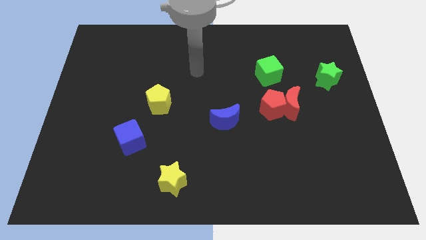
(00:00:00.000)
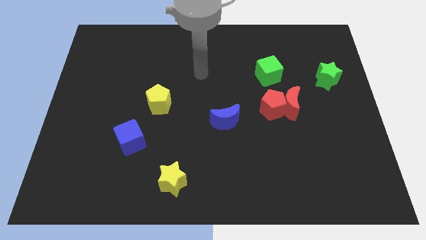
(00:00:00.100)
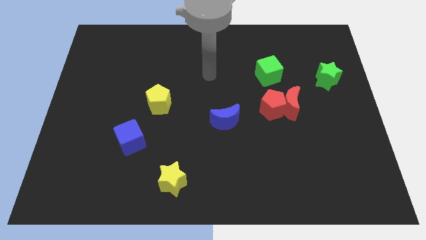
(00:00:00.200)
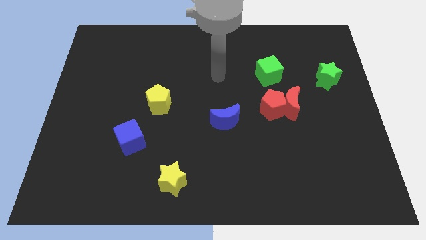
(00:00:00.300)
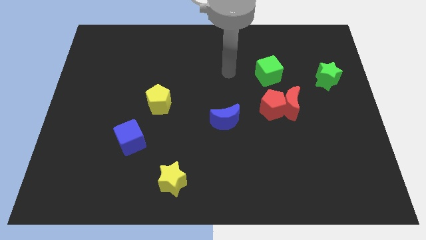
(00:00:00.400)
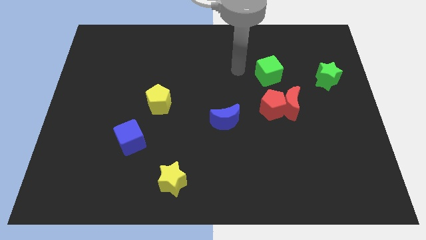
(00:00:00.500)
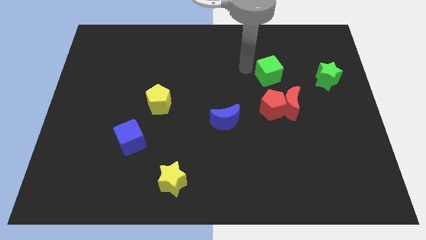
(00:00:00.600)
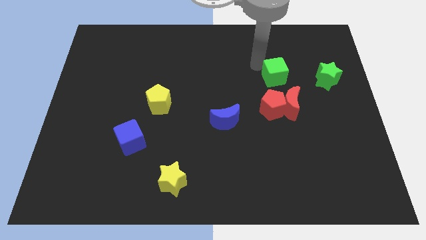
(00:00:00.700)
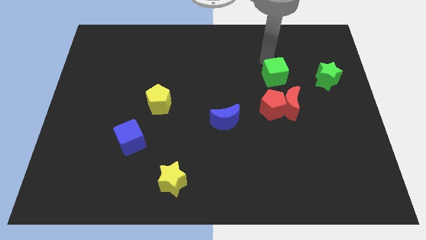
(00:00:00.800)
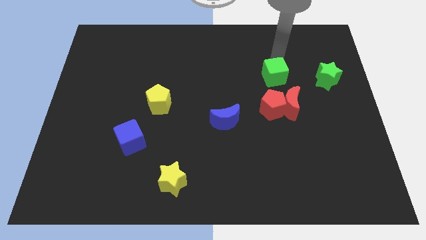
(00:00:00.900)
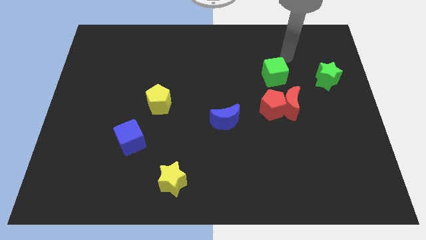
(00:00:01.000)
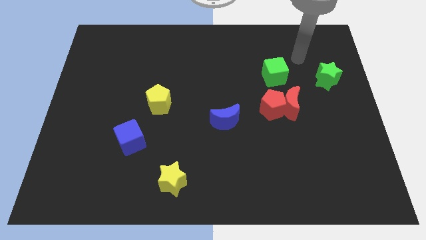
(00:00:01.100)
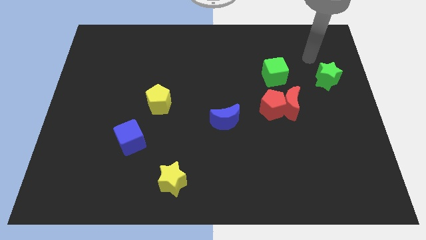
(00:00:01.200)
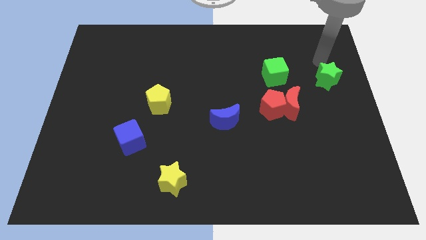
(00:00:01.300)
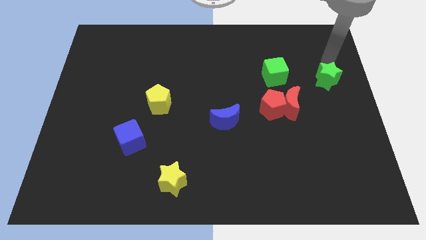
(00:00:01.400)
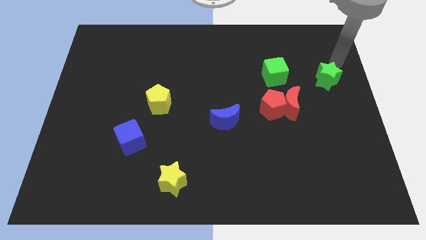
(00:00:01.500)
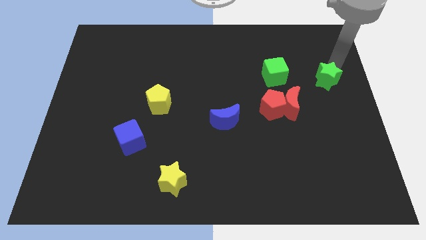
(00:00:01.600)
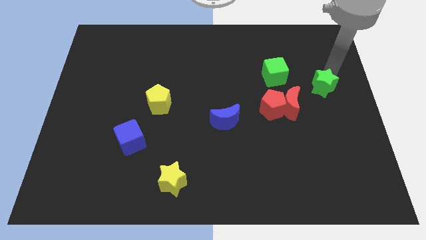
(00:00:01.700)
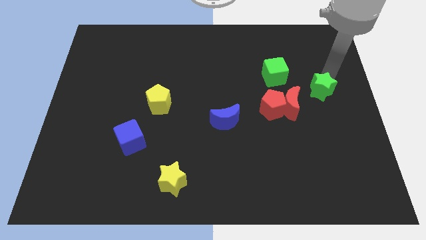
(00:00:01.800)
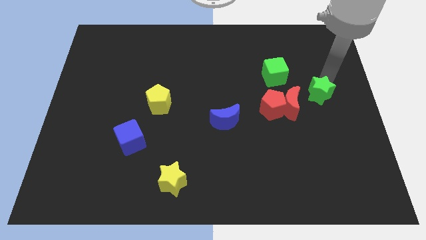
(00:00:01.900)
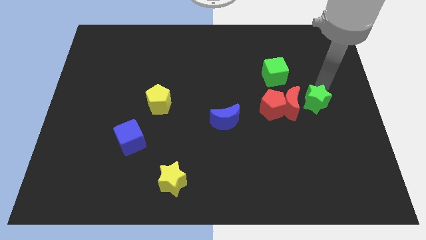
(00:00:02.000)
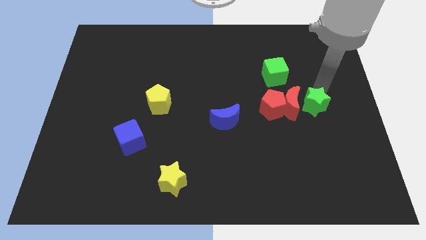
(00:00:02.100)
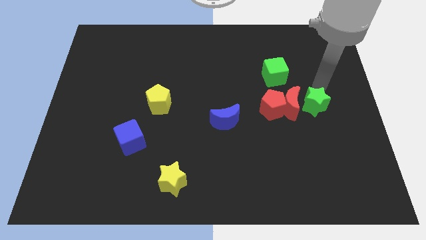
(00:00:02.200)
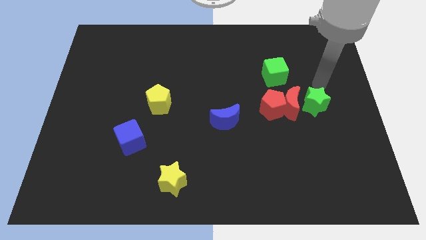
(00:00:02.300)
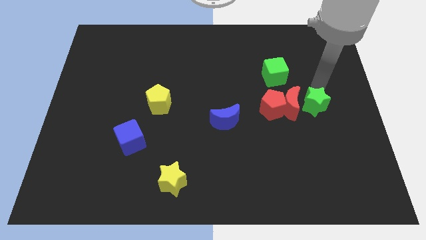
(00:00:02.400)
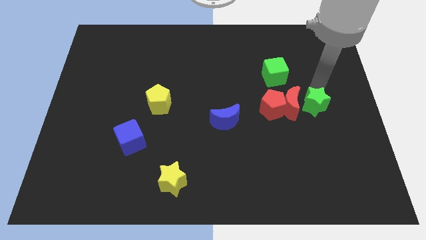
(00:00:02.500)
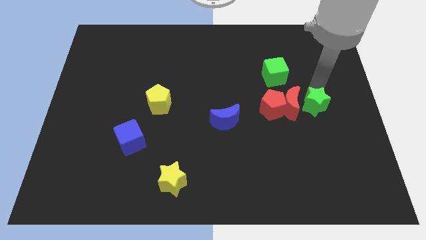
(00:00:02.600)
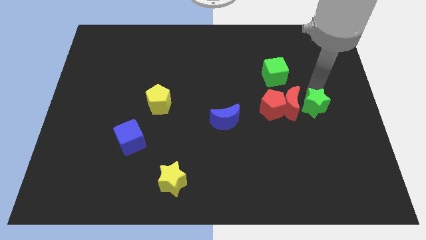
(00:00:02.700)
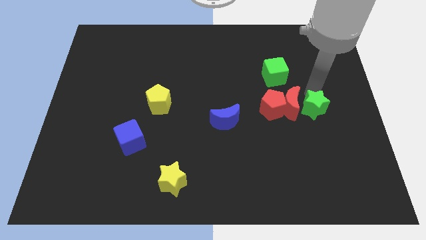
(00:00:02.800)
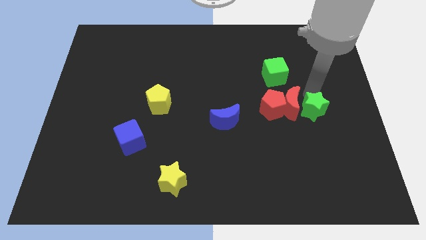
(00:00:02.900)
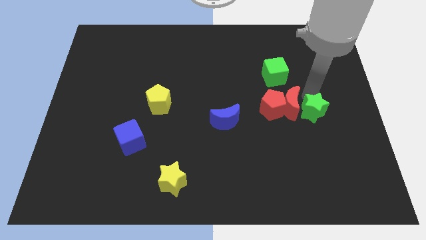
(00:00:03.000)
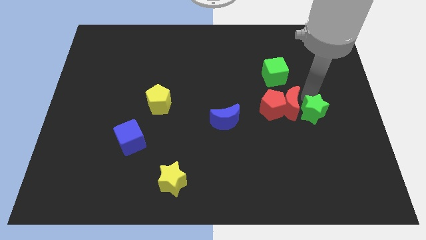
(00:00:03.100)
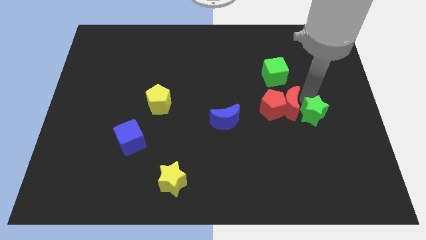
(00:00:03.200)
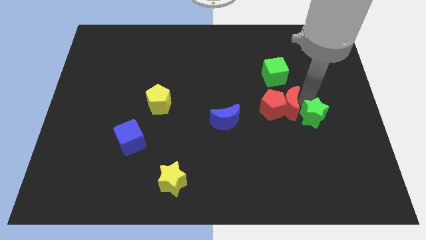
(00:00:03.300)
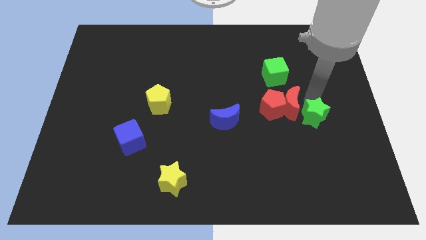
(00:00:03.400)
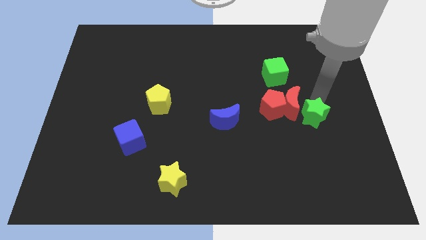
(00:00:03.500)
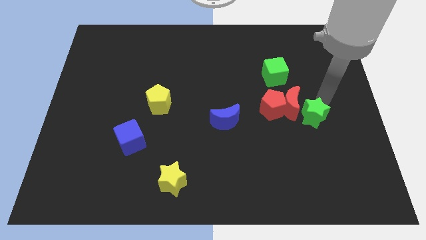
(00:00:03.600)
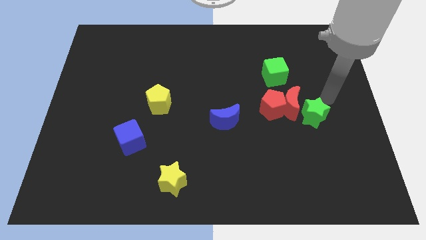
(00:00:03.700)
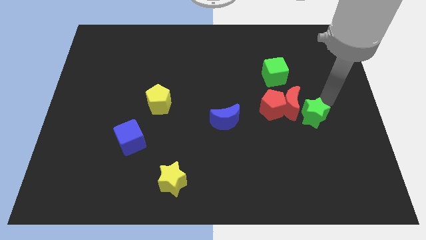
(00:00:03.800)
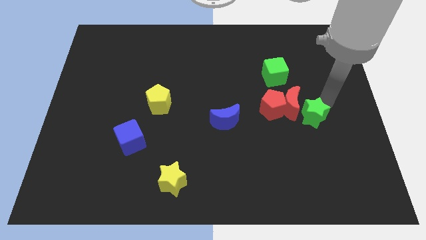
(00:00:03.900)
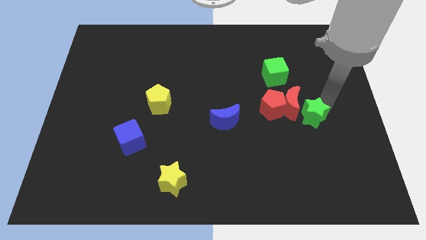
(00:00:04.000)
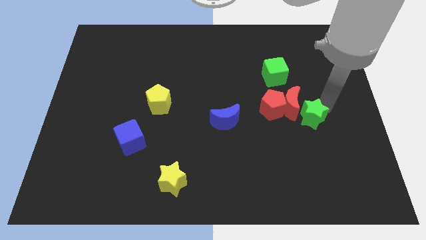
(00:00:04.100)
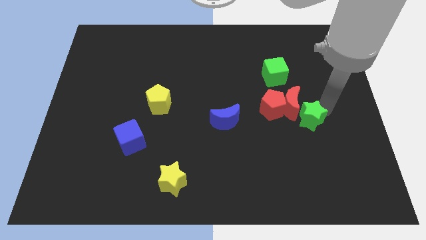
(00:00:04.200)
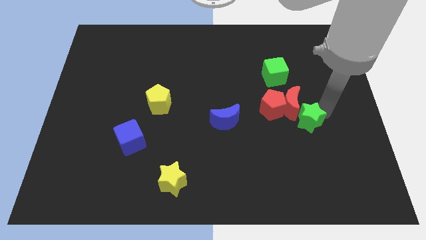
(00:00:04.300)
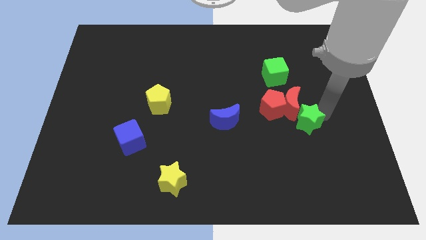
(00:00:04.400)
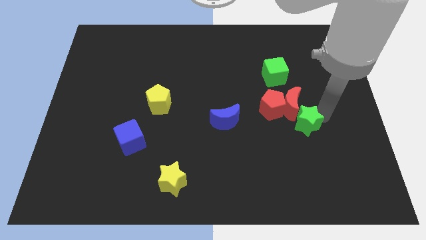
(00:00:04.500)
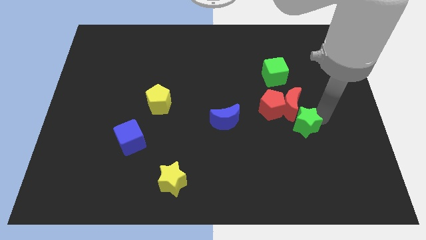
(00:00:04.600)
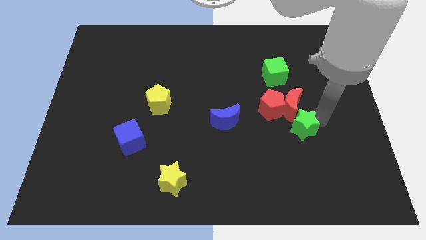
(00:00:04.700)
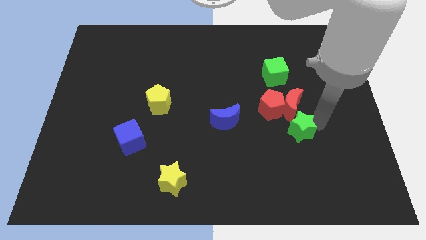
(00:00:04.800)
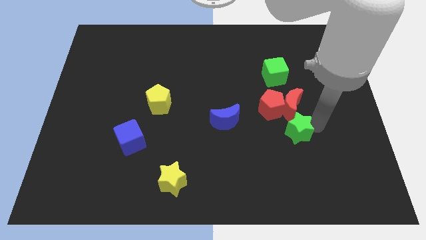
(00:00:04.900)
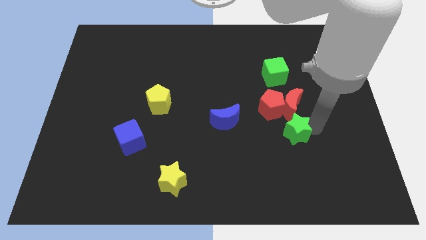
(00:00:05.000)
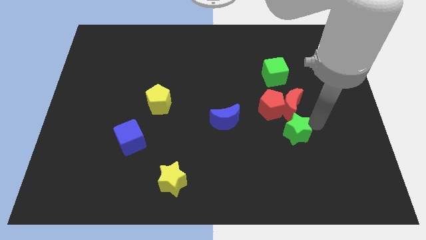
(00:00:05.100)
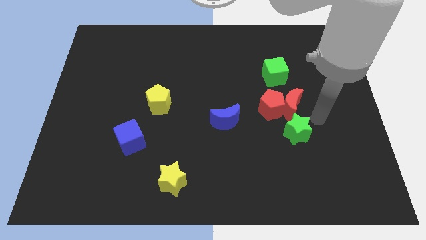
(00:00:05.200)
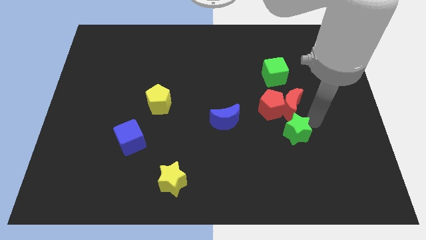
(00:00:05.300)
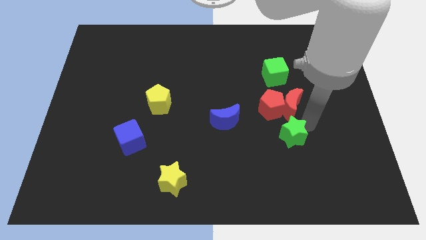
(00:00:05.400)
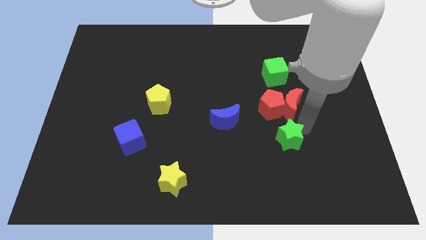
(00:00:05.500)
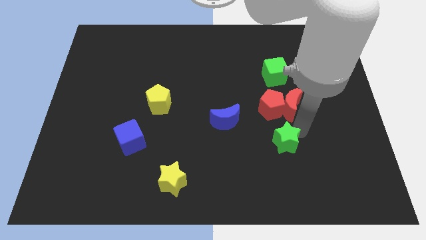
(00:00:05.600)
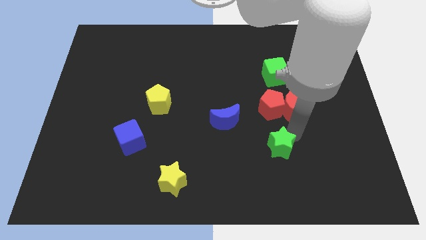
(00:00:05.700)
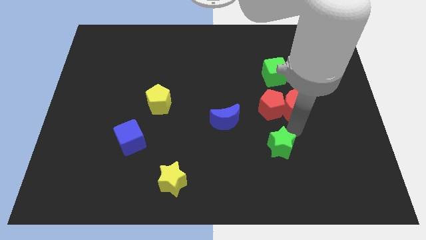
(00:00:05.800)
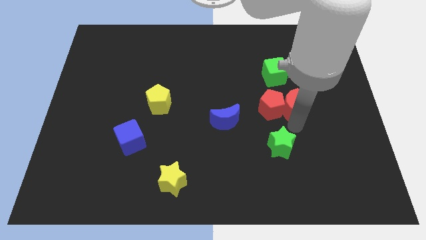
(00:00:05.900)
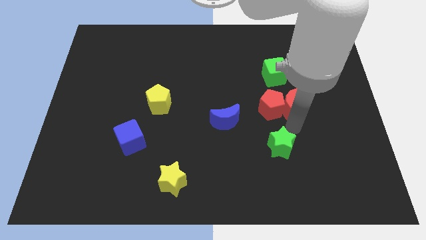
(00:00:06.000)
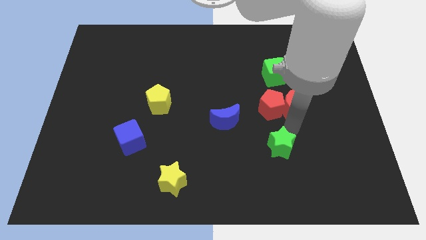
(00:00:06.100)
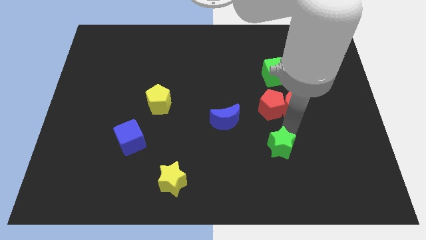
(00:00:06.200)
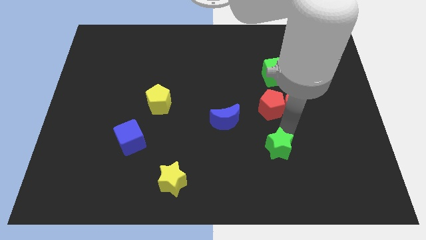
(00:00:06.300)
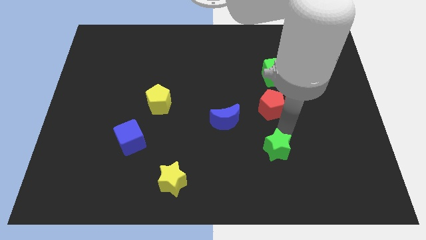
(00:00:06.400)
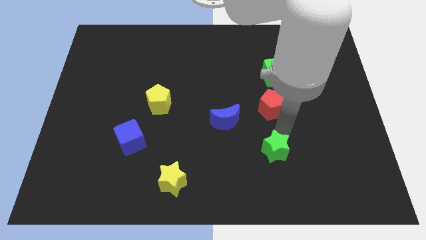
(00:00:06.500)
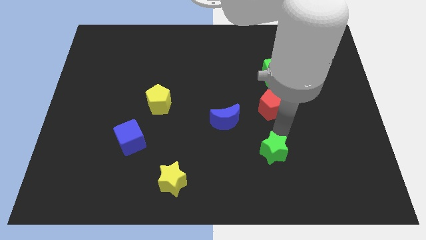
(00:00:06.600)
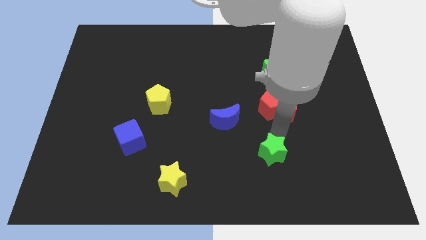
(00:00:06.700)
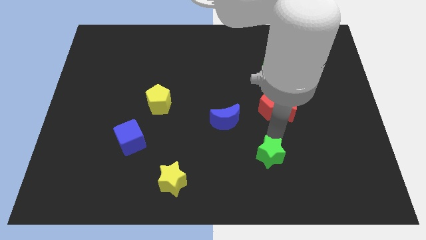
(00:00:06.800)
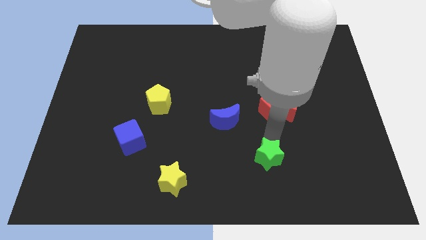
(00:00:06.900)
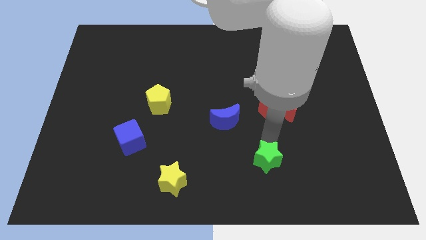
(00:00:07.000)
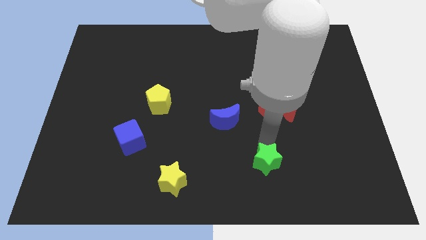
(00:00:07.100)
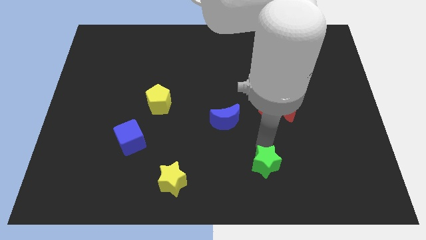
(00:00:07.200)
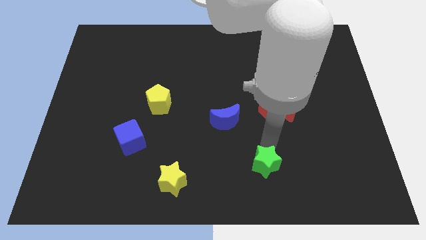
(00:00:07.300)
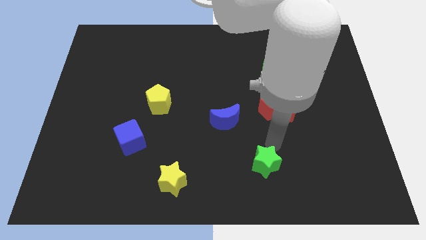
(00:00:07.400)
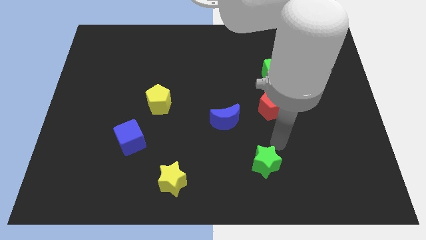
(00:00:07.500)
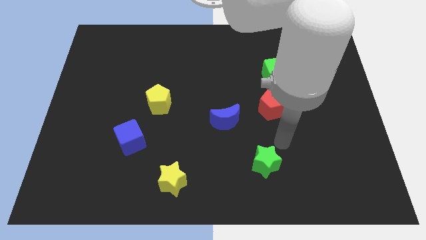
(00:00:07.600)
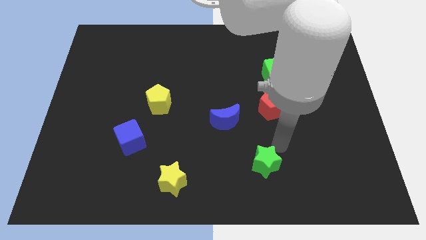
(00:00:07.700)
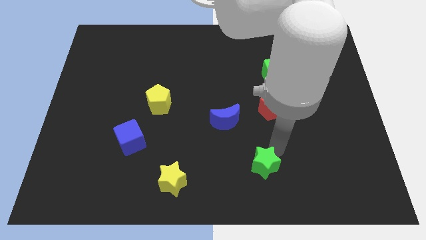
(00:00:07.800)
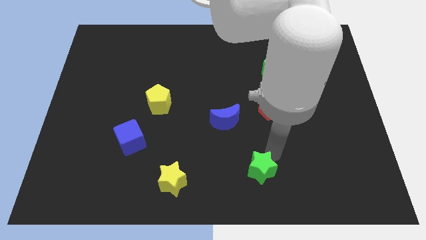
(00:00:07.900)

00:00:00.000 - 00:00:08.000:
move the green star to the bottom
